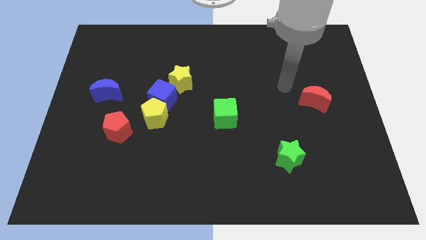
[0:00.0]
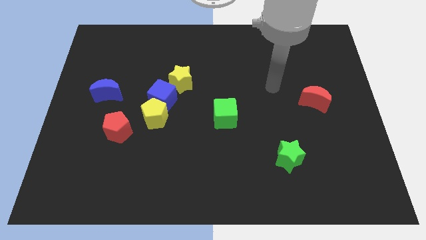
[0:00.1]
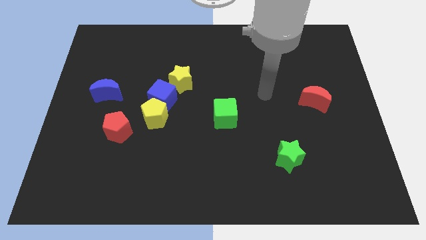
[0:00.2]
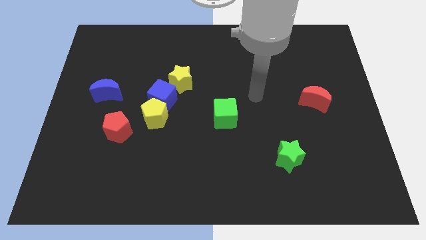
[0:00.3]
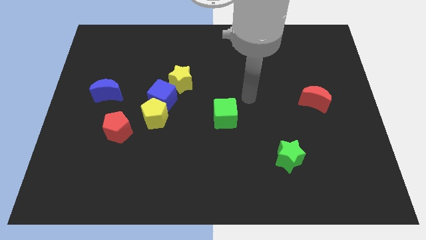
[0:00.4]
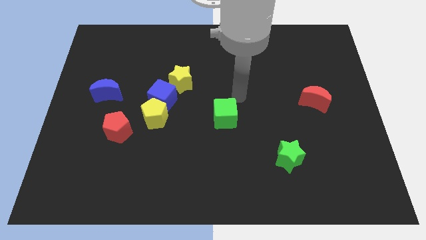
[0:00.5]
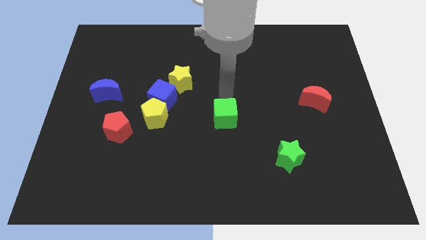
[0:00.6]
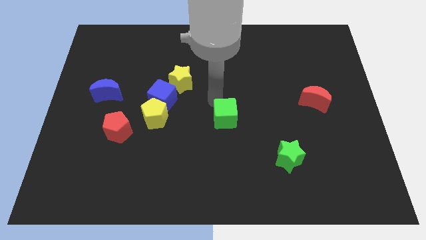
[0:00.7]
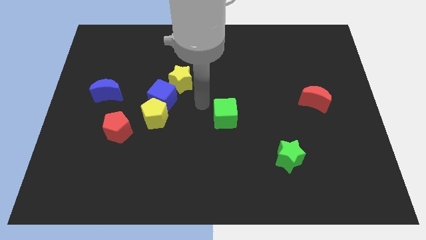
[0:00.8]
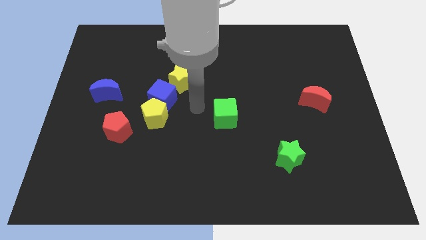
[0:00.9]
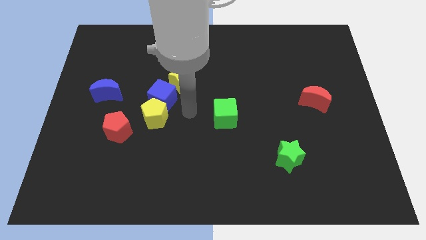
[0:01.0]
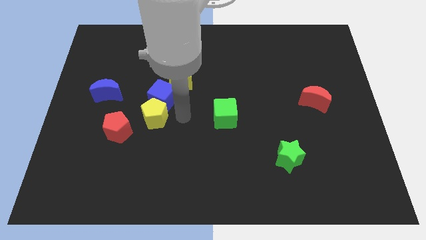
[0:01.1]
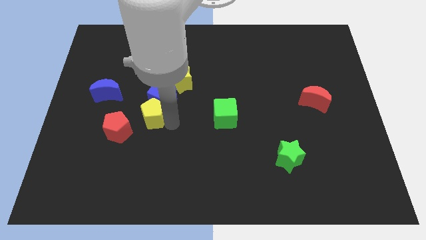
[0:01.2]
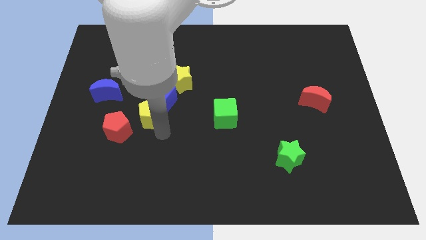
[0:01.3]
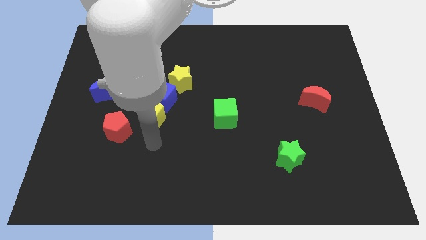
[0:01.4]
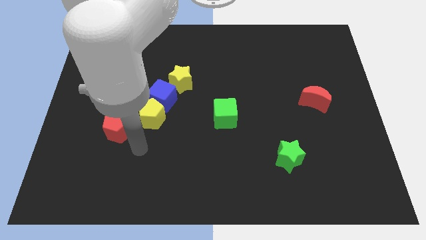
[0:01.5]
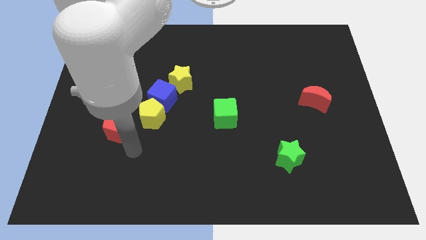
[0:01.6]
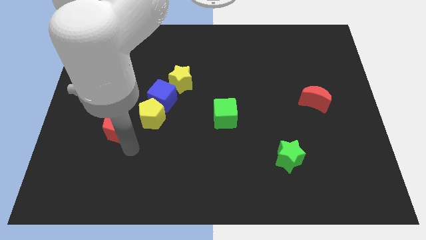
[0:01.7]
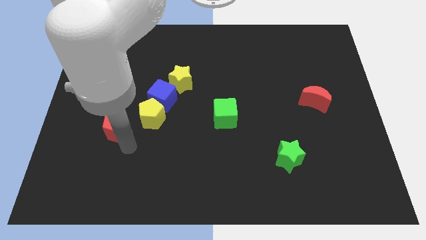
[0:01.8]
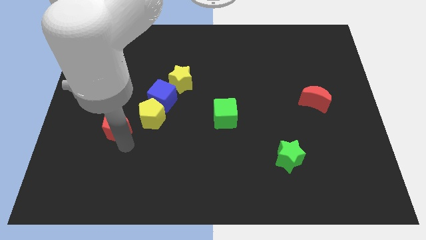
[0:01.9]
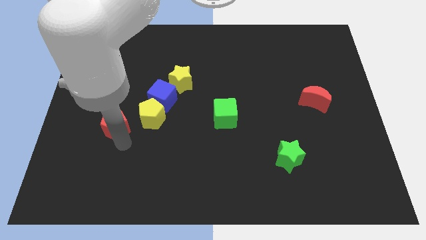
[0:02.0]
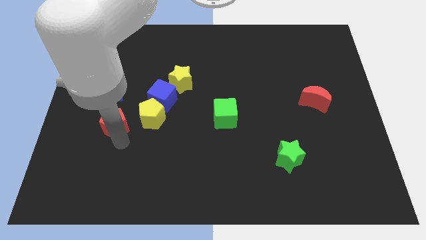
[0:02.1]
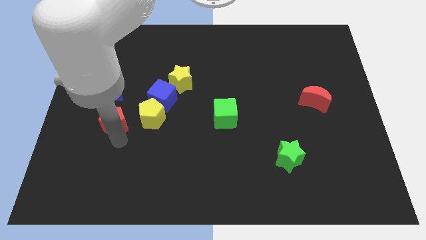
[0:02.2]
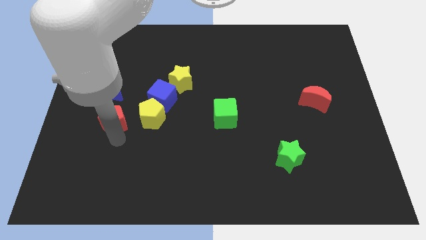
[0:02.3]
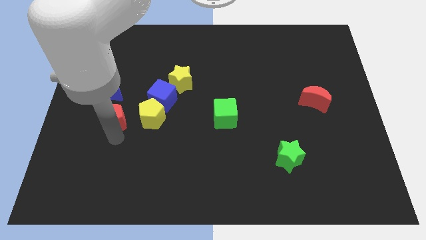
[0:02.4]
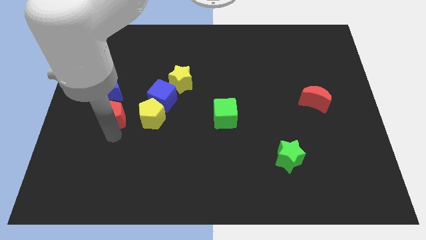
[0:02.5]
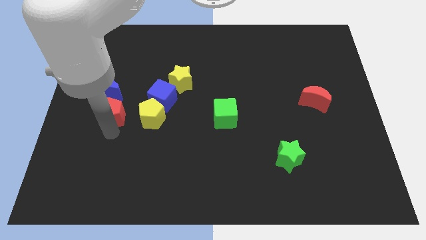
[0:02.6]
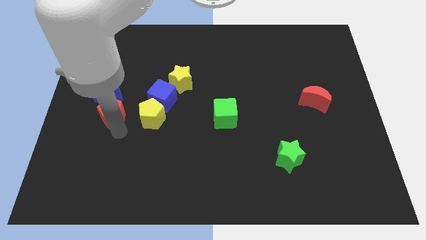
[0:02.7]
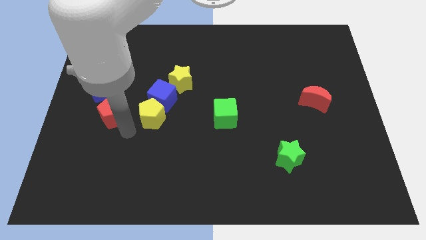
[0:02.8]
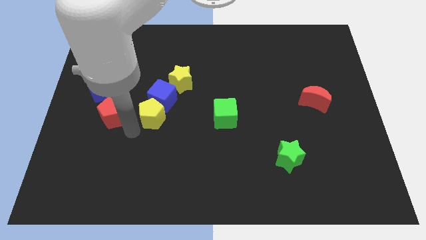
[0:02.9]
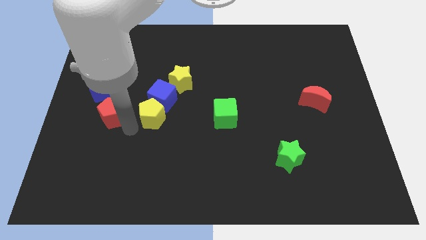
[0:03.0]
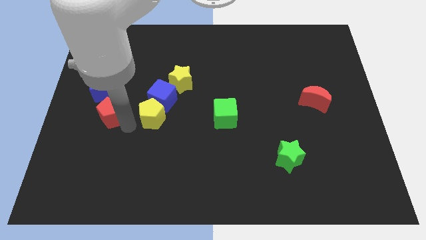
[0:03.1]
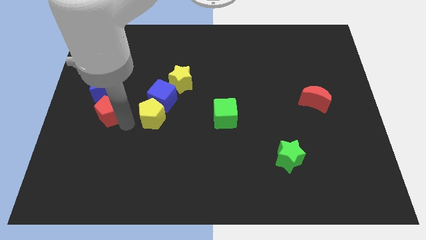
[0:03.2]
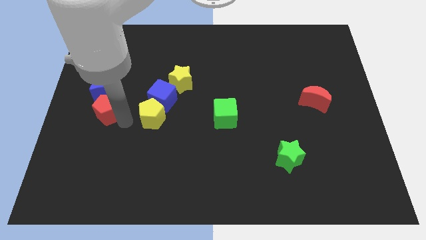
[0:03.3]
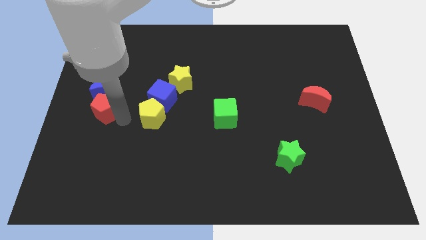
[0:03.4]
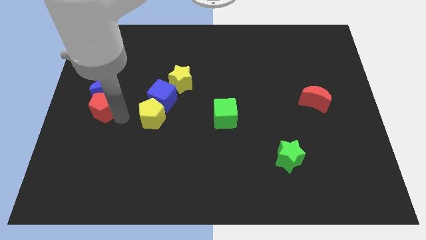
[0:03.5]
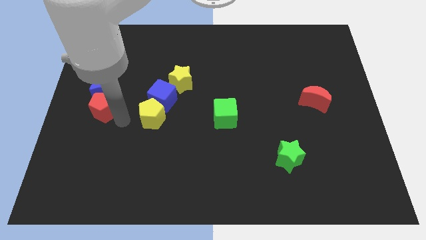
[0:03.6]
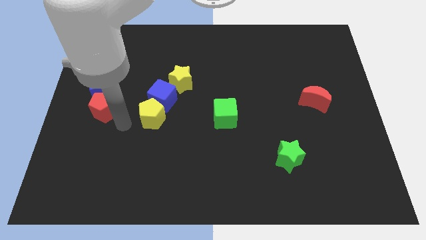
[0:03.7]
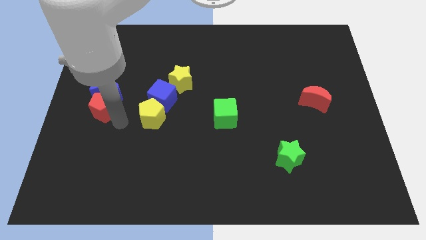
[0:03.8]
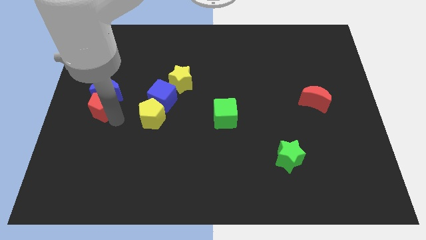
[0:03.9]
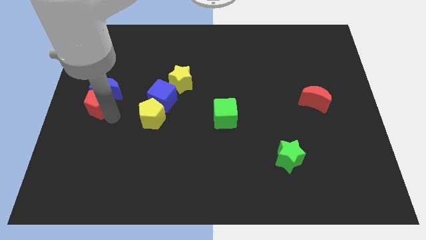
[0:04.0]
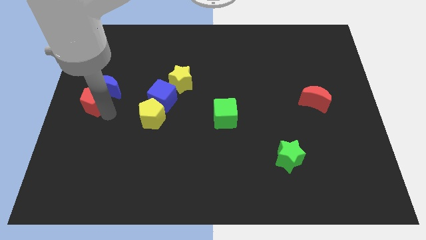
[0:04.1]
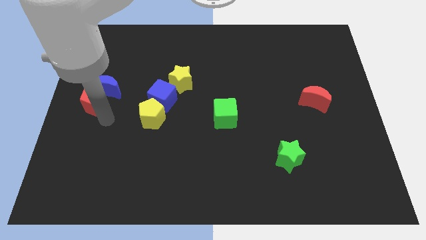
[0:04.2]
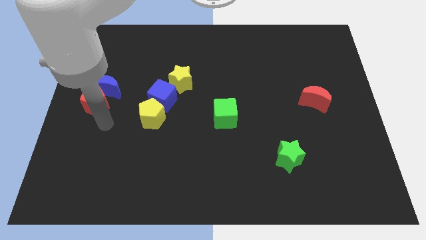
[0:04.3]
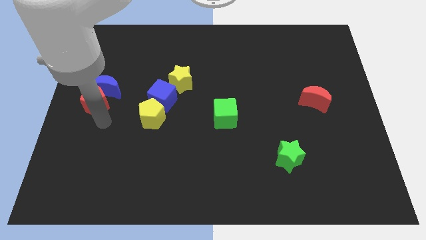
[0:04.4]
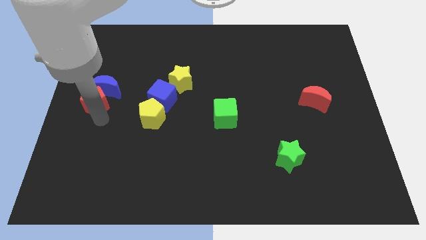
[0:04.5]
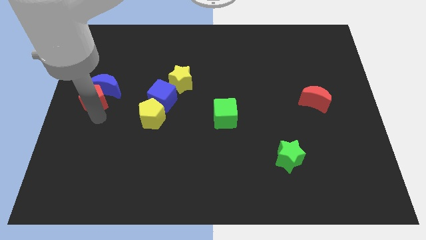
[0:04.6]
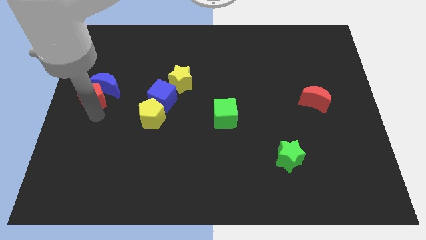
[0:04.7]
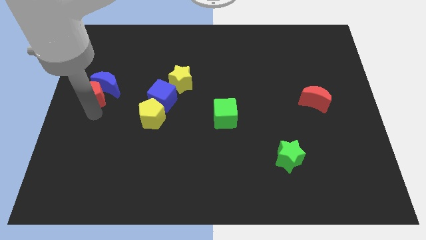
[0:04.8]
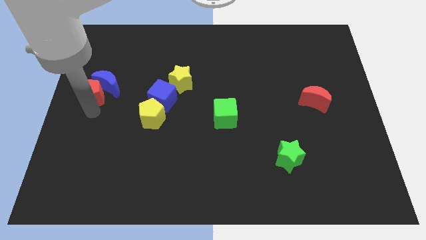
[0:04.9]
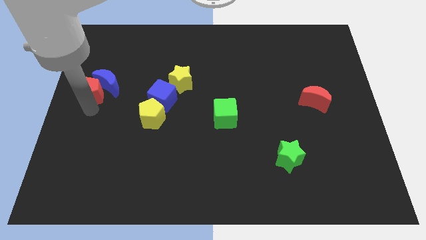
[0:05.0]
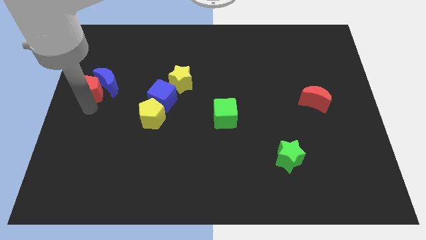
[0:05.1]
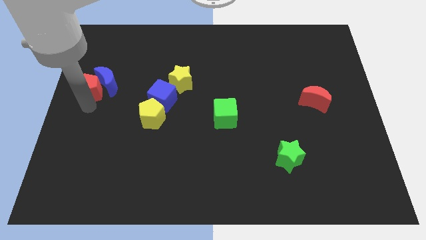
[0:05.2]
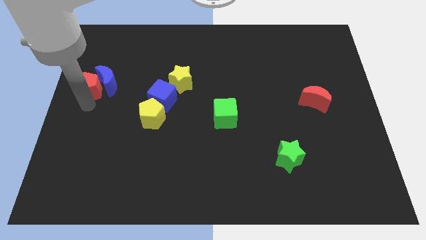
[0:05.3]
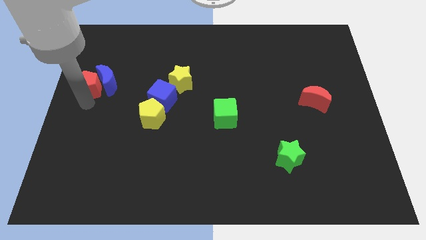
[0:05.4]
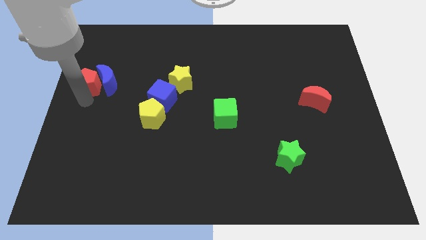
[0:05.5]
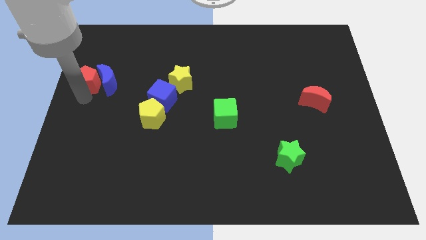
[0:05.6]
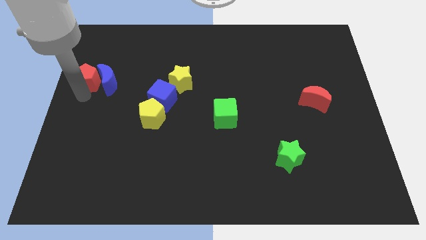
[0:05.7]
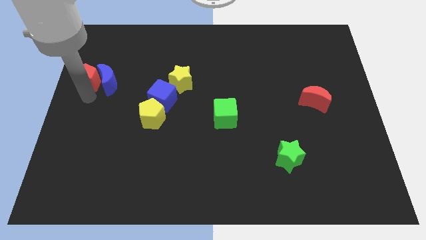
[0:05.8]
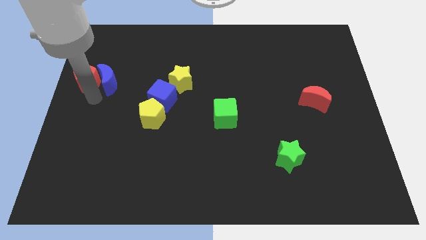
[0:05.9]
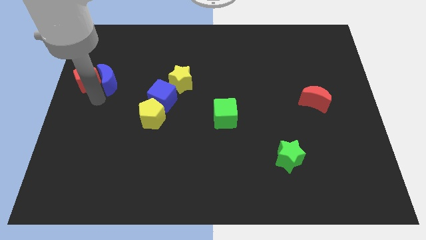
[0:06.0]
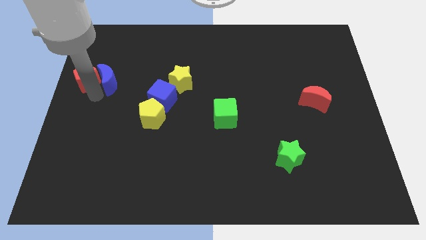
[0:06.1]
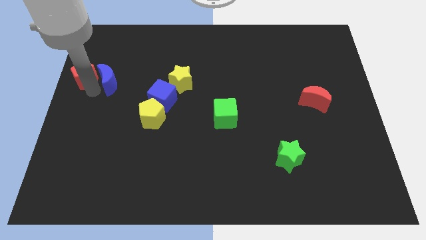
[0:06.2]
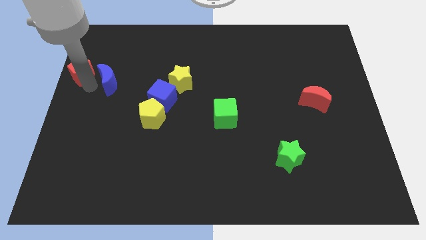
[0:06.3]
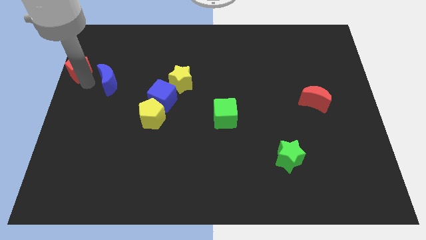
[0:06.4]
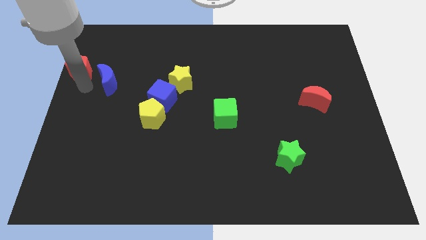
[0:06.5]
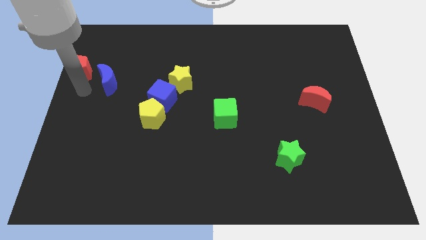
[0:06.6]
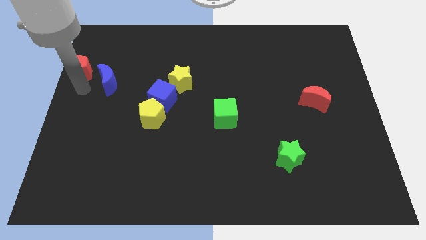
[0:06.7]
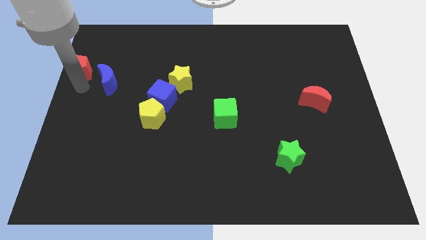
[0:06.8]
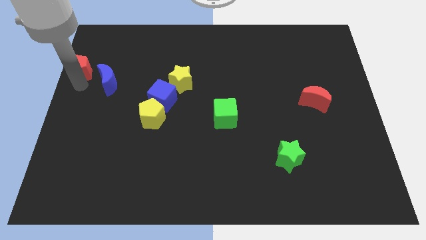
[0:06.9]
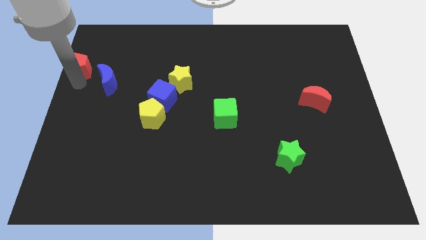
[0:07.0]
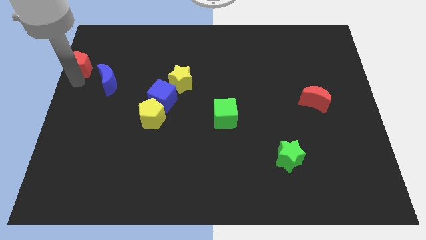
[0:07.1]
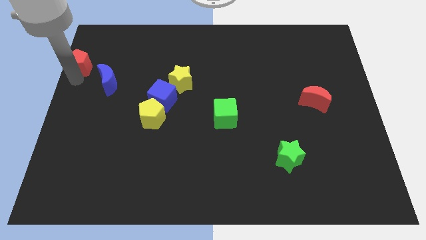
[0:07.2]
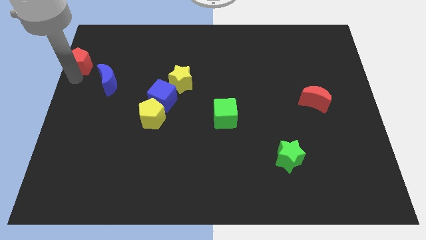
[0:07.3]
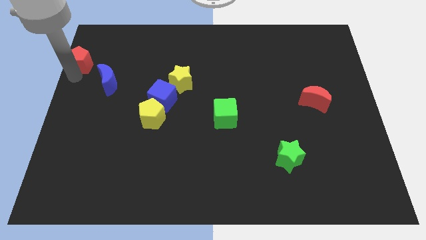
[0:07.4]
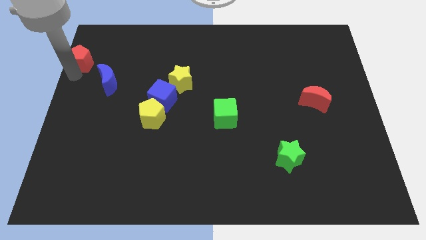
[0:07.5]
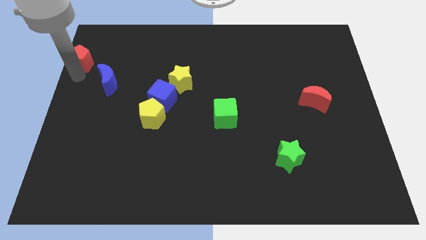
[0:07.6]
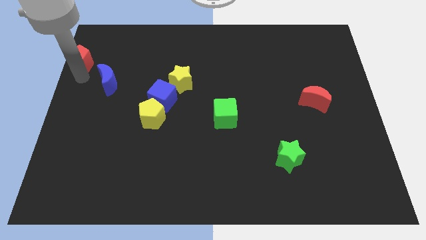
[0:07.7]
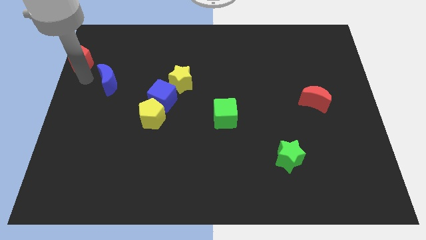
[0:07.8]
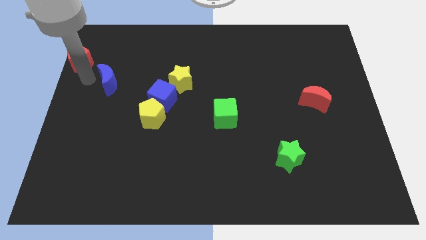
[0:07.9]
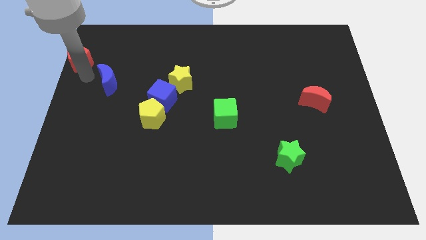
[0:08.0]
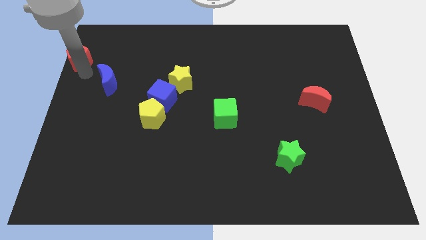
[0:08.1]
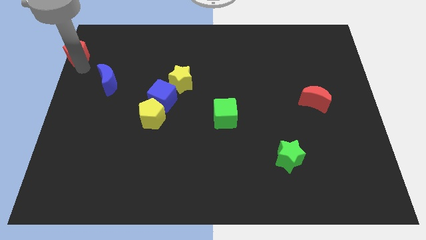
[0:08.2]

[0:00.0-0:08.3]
slide the red pentagon to the top left
